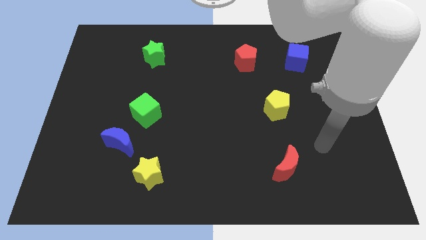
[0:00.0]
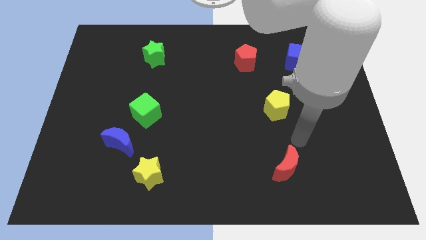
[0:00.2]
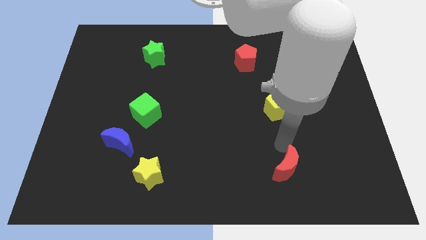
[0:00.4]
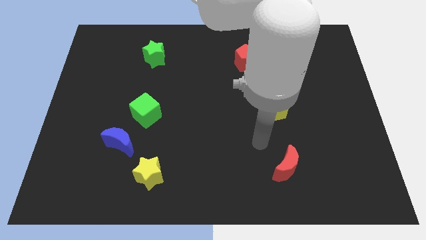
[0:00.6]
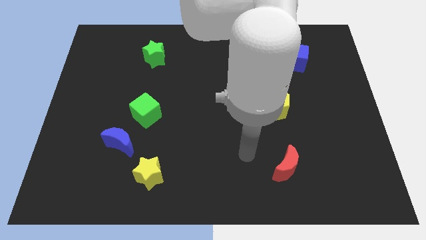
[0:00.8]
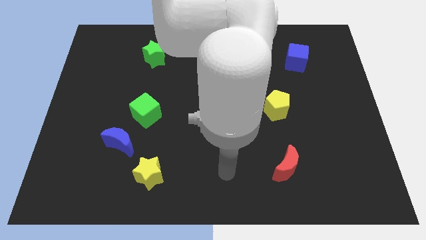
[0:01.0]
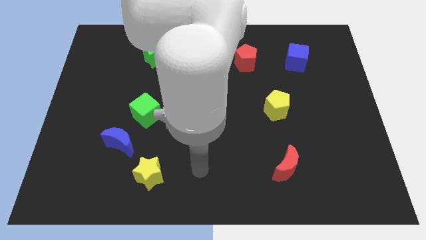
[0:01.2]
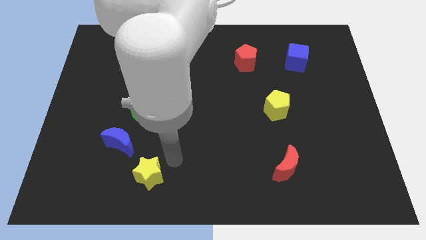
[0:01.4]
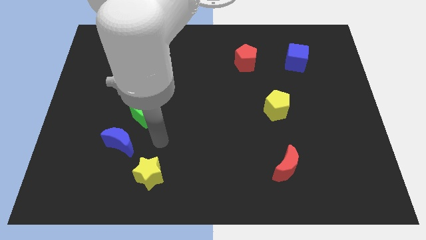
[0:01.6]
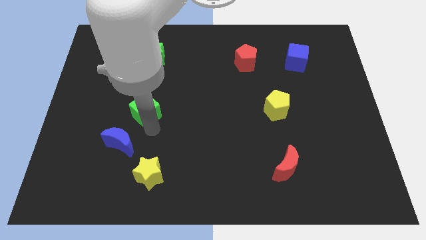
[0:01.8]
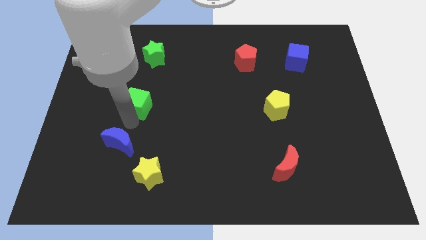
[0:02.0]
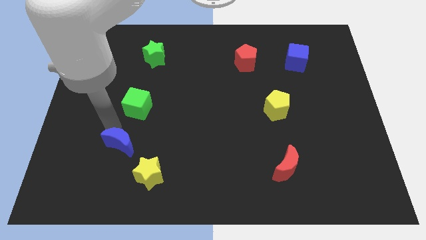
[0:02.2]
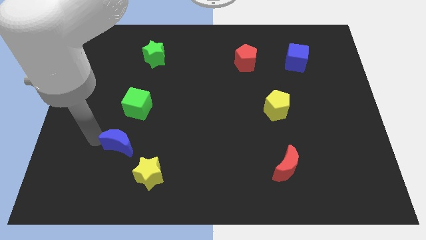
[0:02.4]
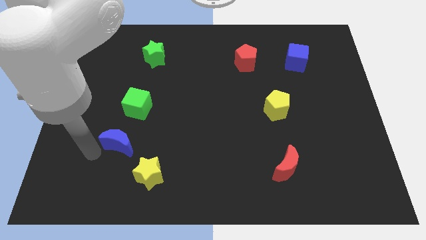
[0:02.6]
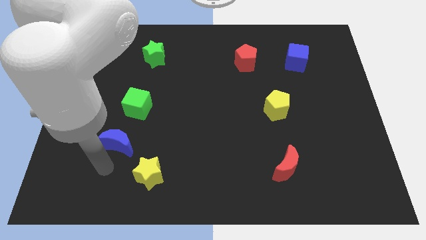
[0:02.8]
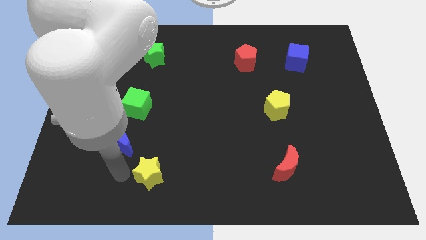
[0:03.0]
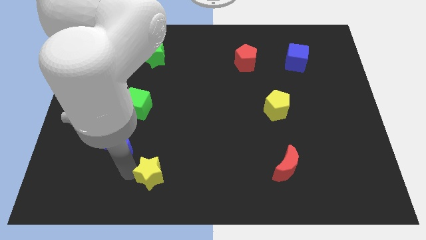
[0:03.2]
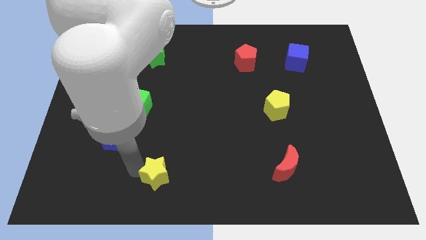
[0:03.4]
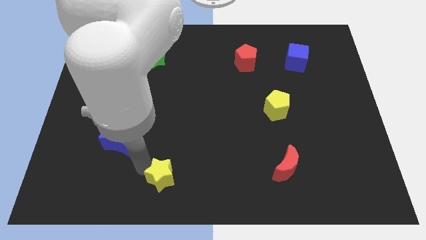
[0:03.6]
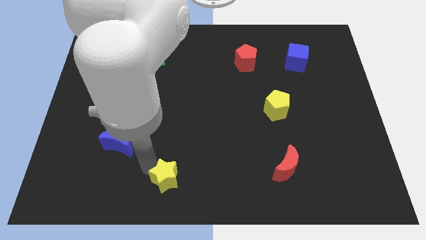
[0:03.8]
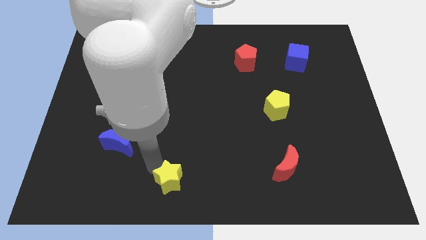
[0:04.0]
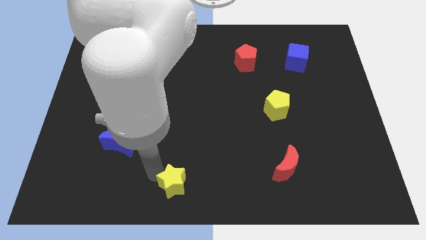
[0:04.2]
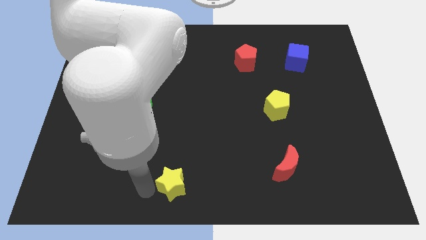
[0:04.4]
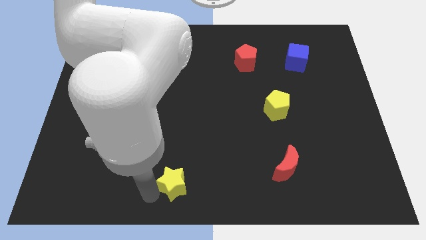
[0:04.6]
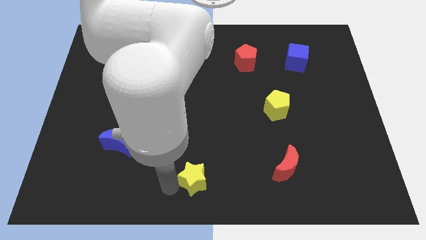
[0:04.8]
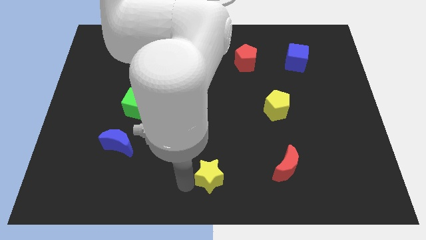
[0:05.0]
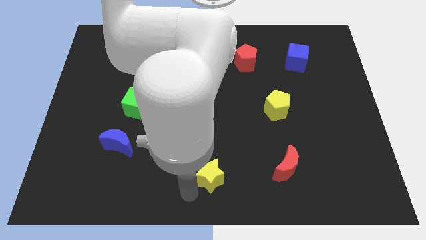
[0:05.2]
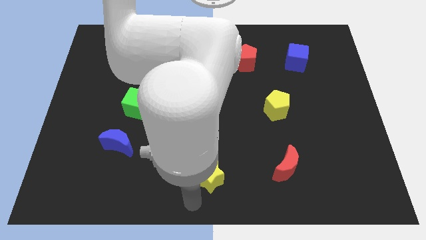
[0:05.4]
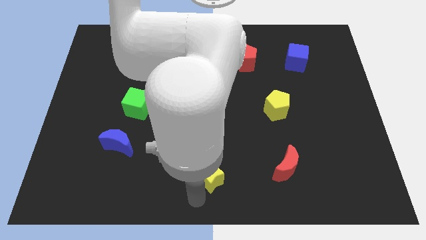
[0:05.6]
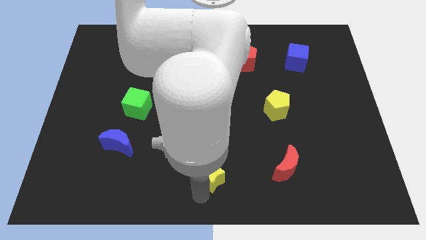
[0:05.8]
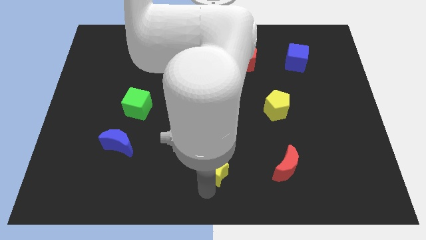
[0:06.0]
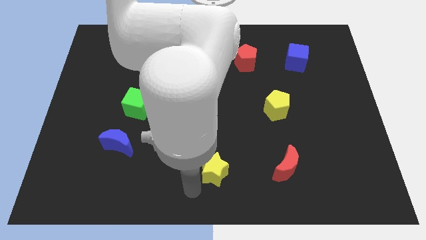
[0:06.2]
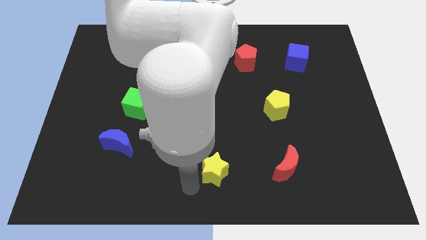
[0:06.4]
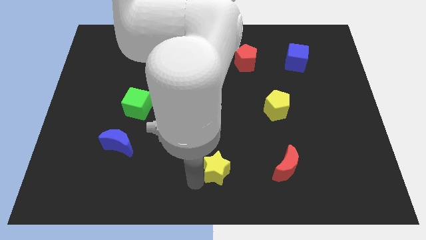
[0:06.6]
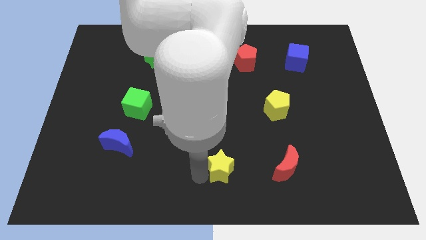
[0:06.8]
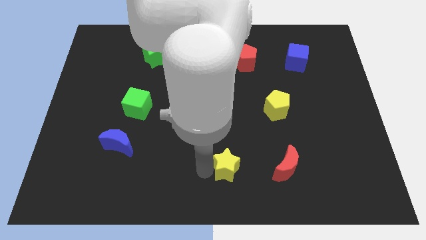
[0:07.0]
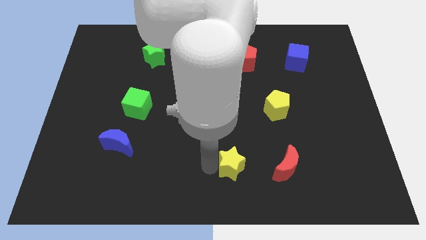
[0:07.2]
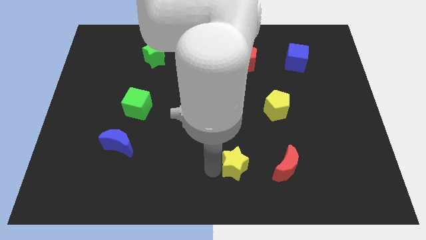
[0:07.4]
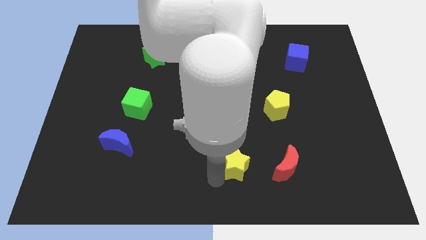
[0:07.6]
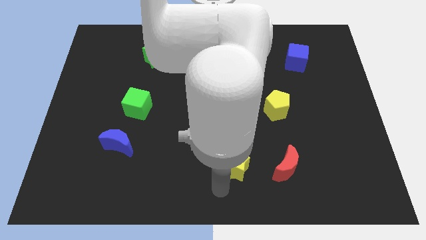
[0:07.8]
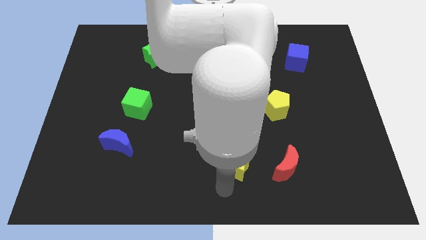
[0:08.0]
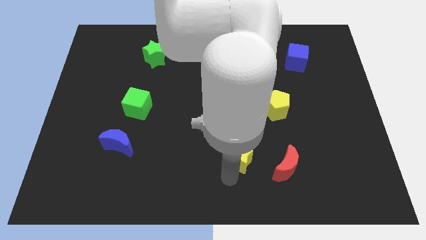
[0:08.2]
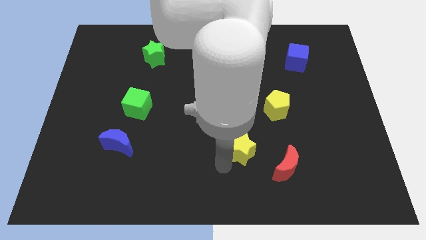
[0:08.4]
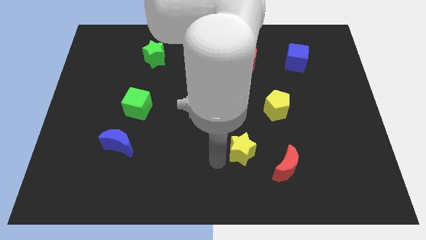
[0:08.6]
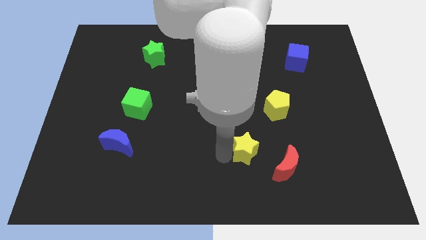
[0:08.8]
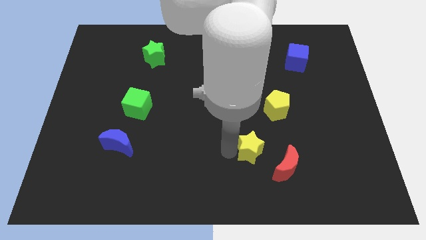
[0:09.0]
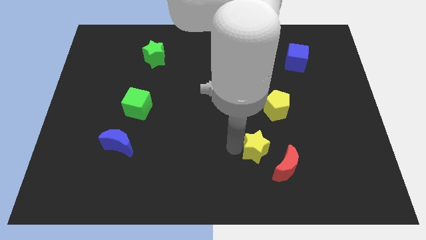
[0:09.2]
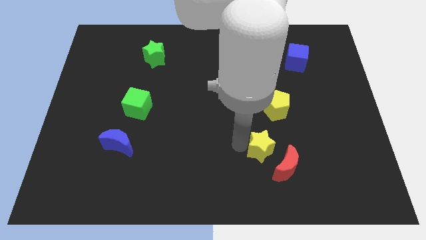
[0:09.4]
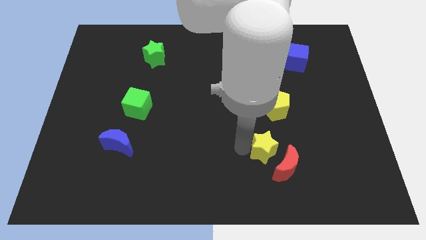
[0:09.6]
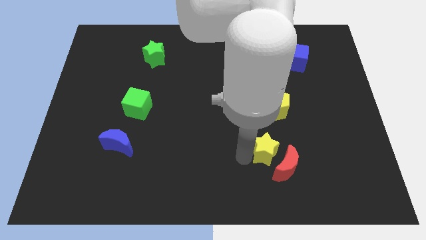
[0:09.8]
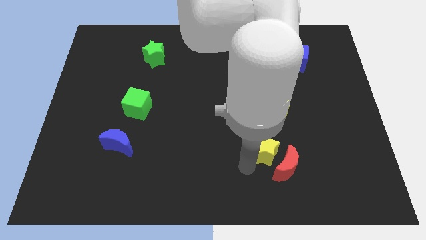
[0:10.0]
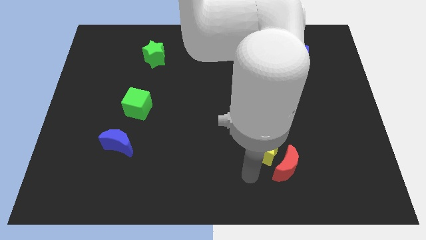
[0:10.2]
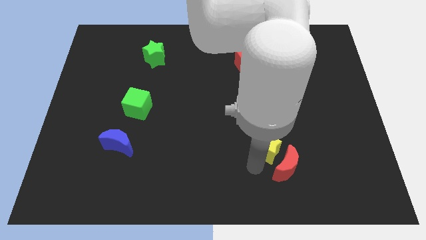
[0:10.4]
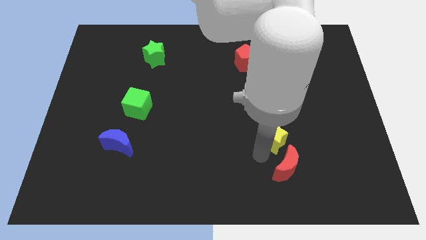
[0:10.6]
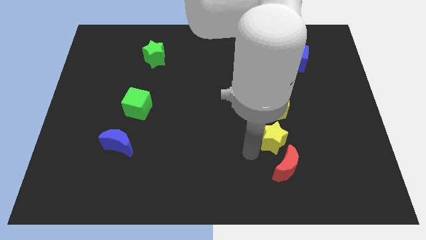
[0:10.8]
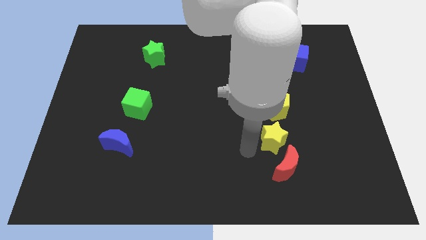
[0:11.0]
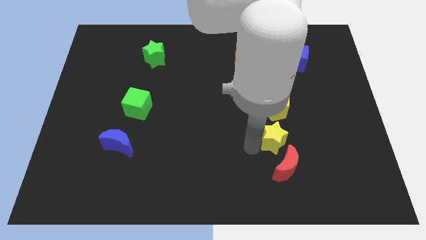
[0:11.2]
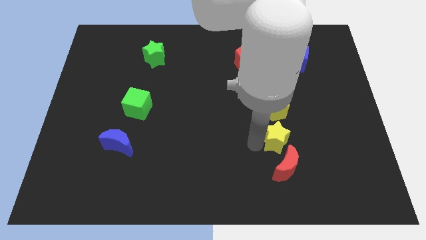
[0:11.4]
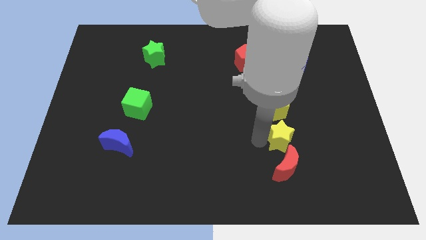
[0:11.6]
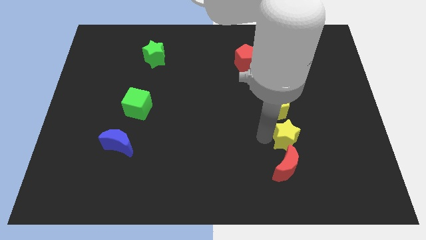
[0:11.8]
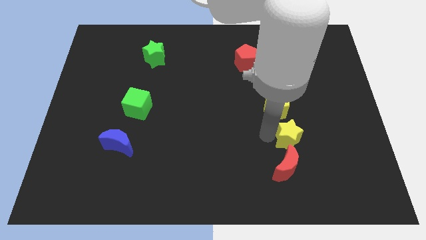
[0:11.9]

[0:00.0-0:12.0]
slide the yellow star diagonally down and to the right of the yellow pentagon

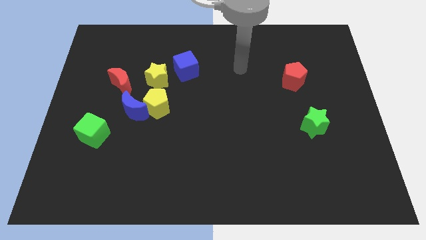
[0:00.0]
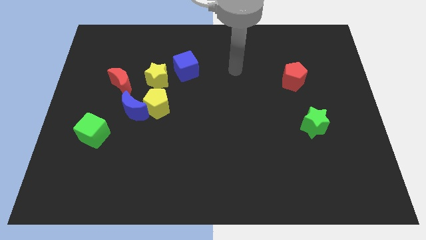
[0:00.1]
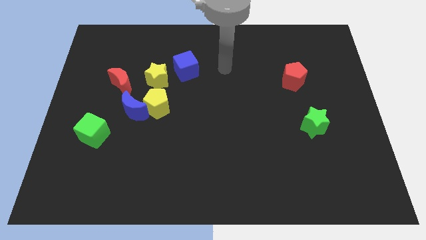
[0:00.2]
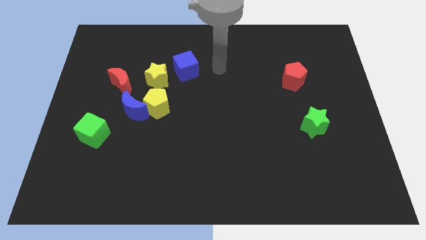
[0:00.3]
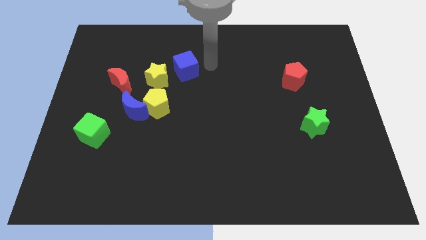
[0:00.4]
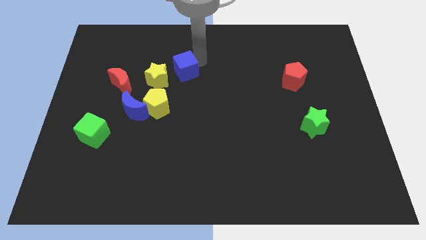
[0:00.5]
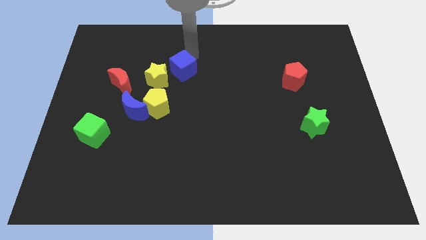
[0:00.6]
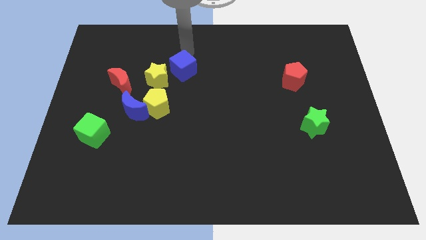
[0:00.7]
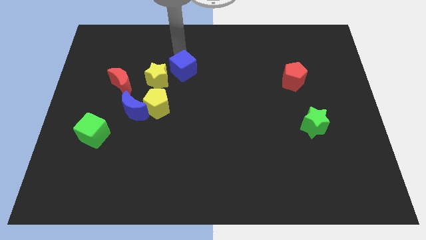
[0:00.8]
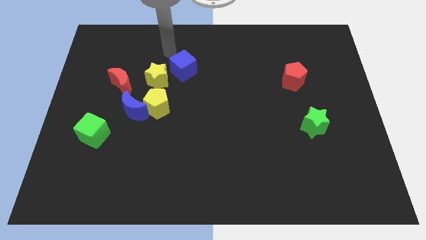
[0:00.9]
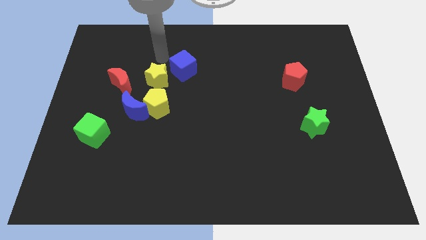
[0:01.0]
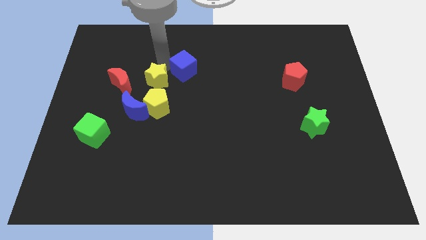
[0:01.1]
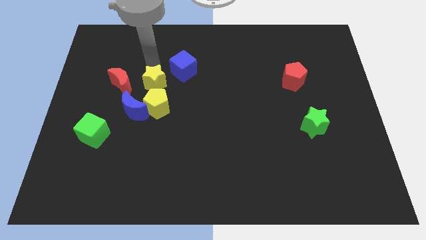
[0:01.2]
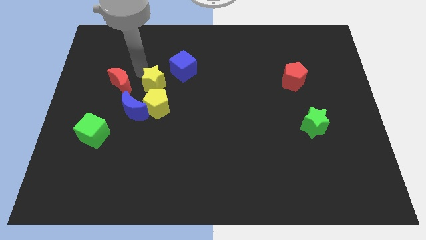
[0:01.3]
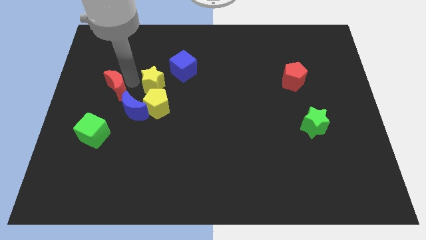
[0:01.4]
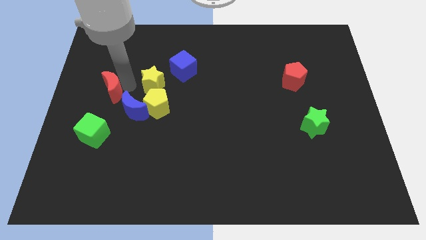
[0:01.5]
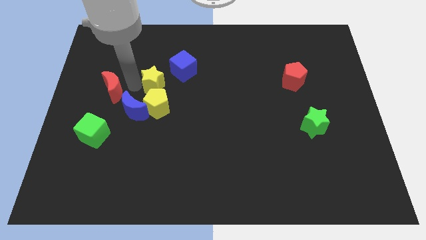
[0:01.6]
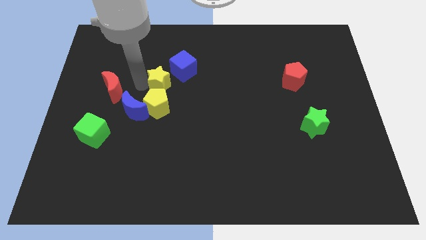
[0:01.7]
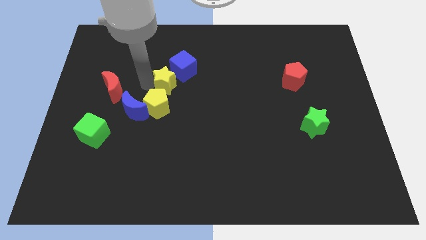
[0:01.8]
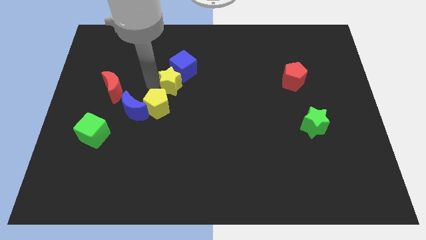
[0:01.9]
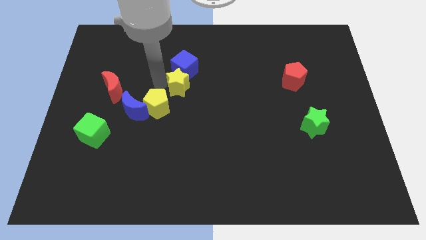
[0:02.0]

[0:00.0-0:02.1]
slide the yellow star diagonally down and to the right of the blue cube
